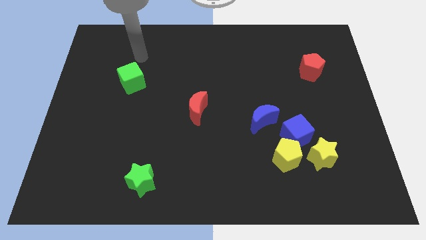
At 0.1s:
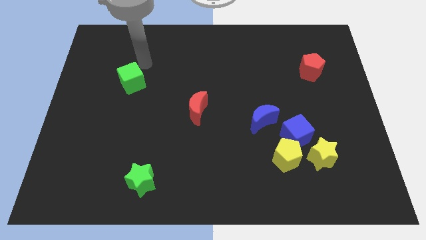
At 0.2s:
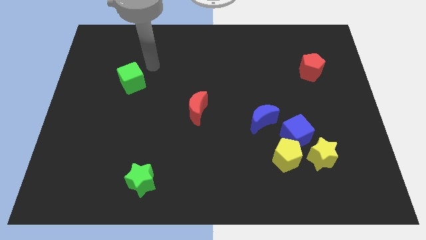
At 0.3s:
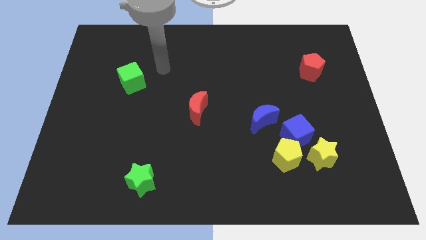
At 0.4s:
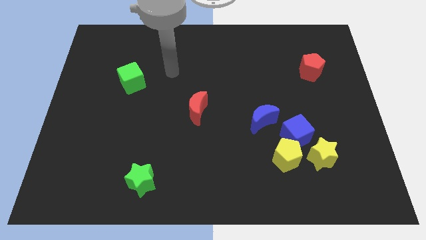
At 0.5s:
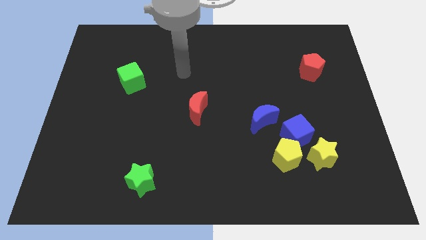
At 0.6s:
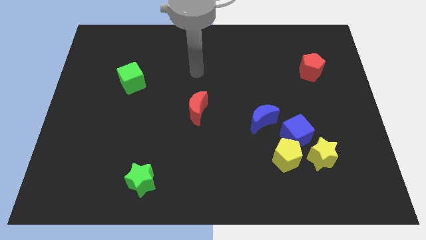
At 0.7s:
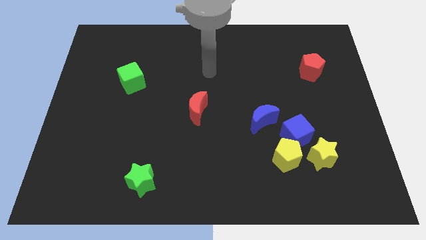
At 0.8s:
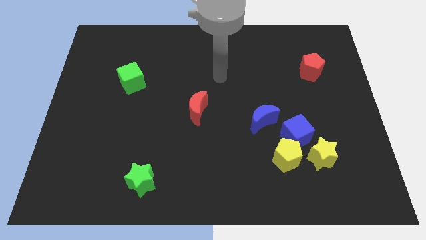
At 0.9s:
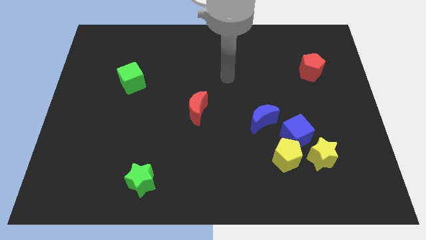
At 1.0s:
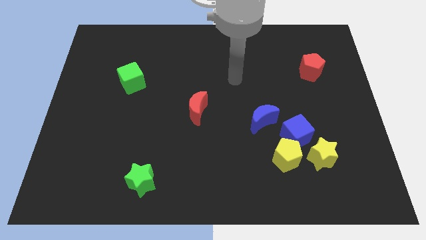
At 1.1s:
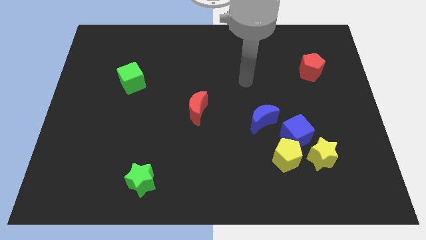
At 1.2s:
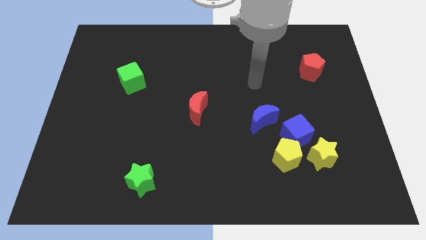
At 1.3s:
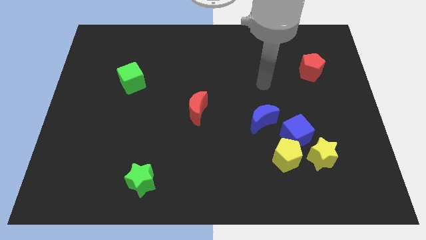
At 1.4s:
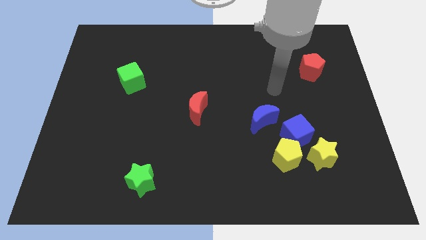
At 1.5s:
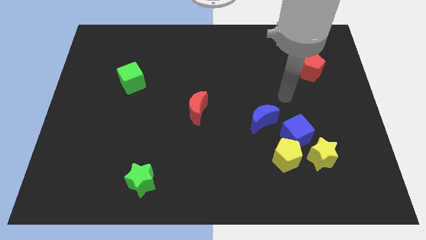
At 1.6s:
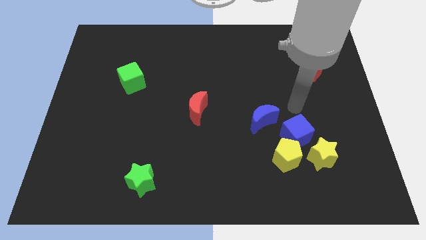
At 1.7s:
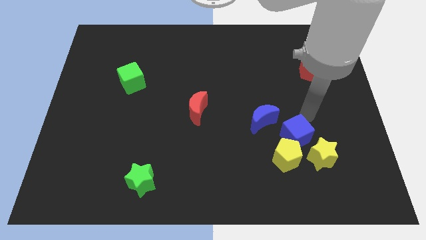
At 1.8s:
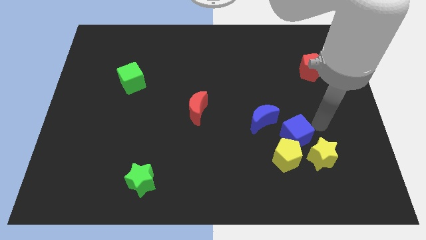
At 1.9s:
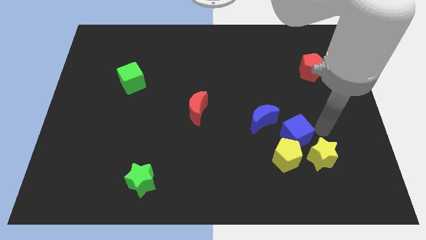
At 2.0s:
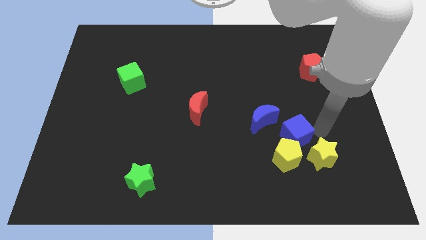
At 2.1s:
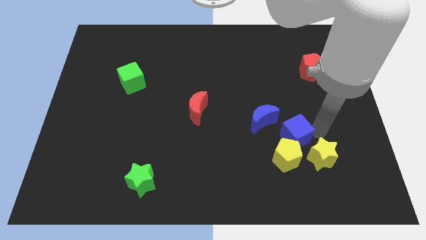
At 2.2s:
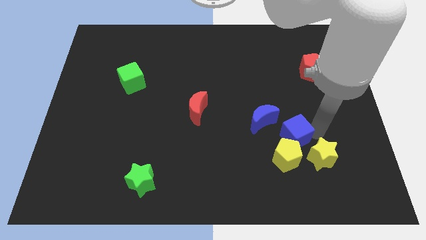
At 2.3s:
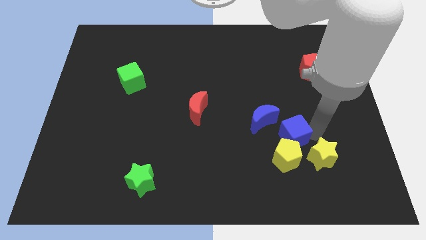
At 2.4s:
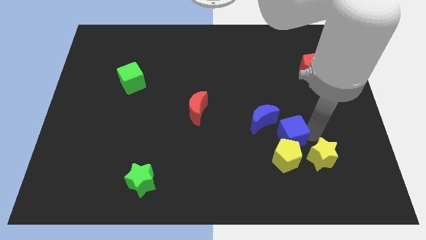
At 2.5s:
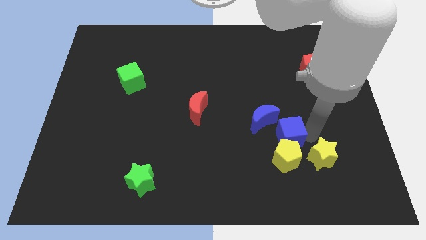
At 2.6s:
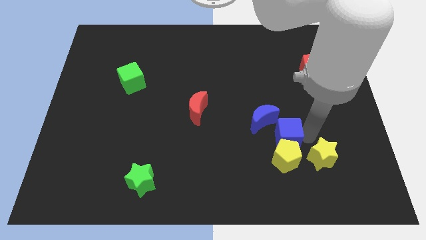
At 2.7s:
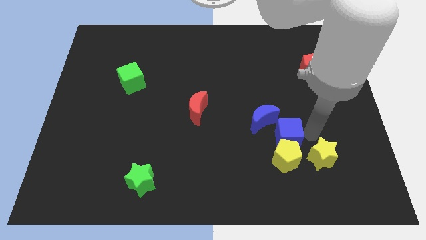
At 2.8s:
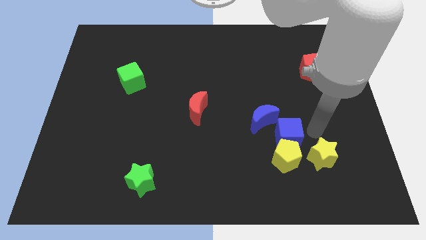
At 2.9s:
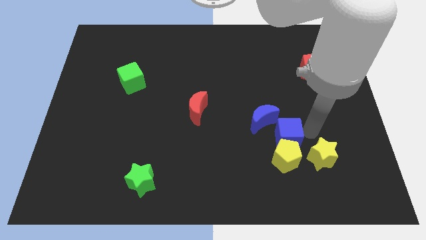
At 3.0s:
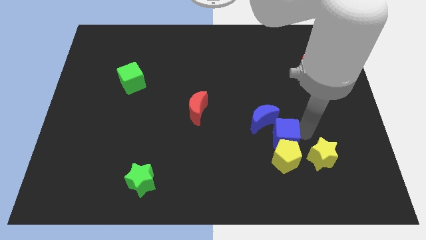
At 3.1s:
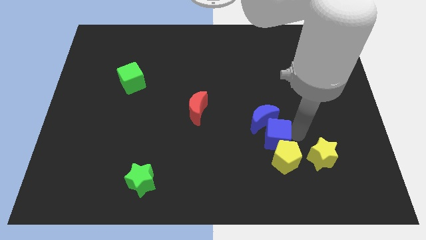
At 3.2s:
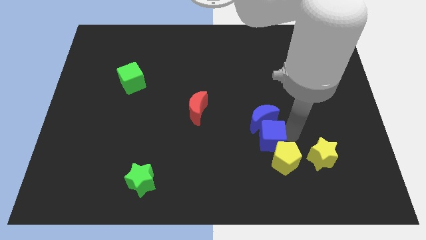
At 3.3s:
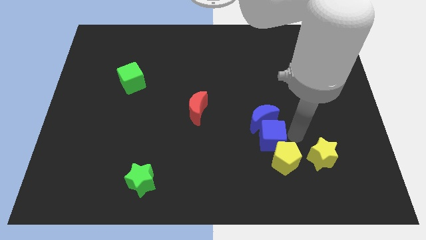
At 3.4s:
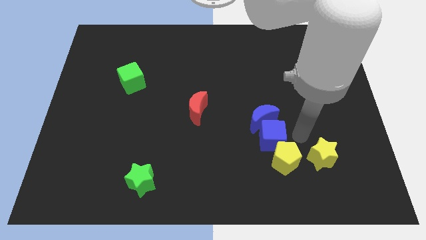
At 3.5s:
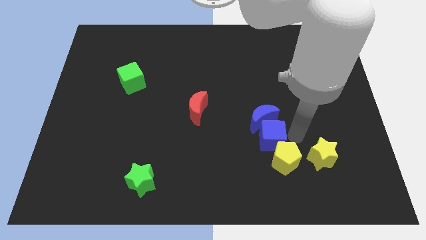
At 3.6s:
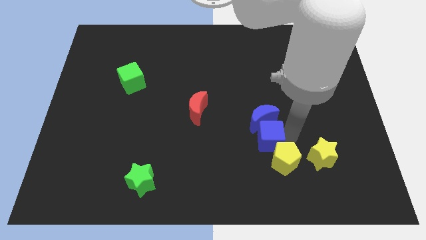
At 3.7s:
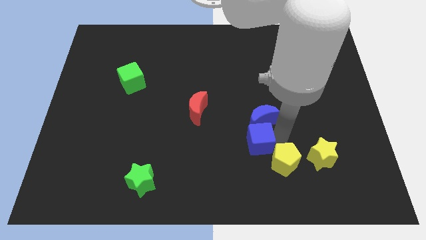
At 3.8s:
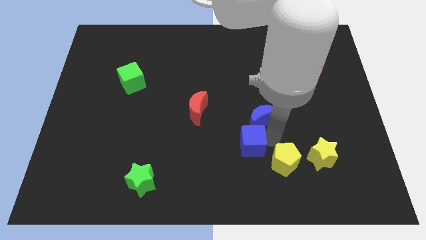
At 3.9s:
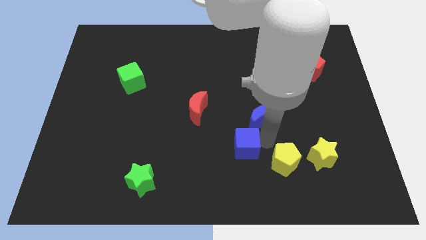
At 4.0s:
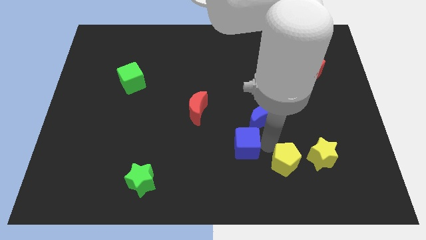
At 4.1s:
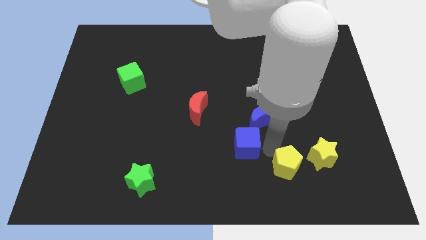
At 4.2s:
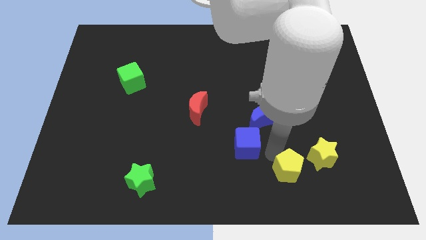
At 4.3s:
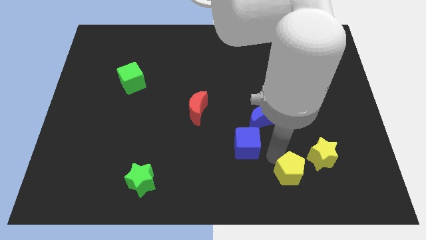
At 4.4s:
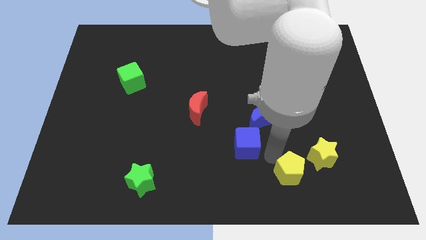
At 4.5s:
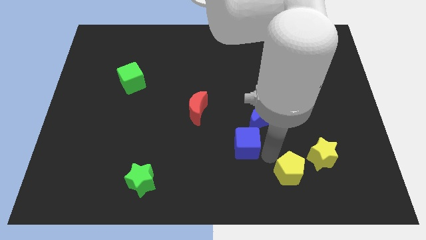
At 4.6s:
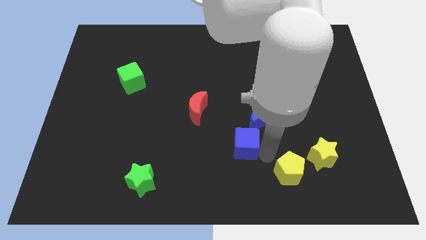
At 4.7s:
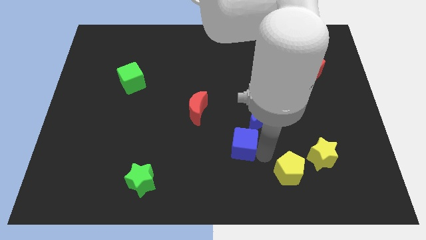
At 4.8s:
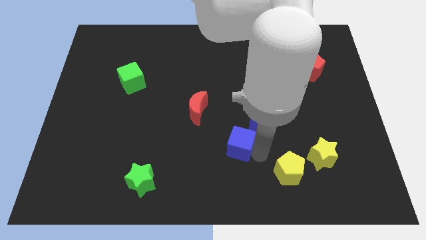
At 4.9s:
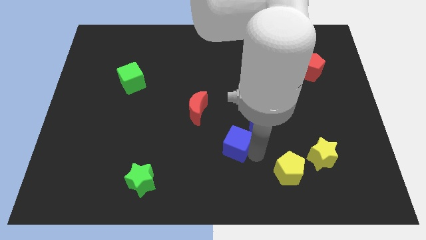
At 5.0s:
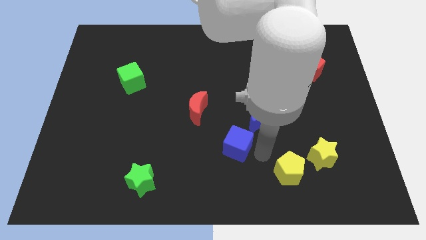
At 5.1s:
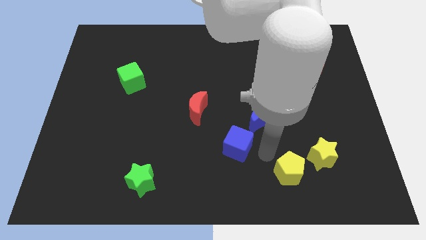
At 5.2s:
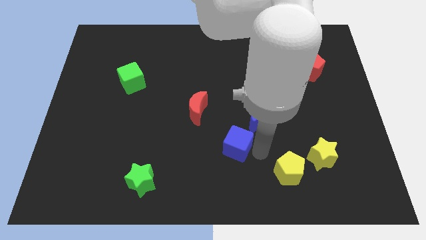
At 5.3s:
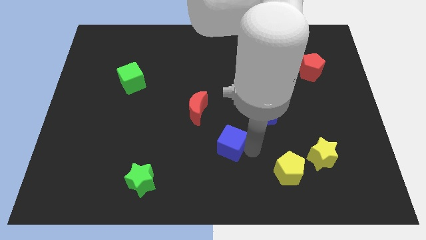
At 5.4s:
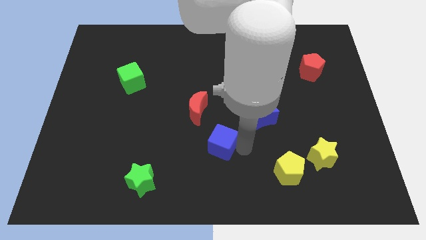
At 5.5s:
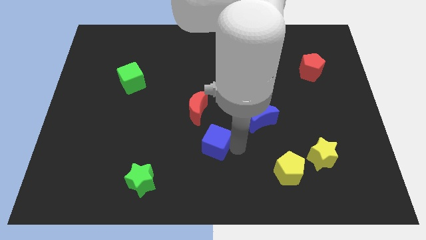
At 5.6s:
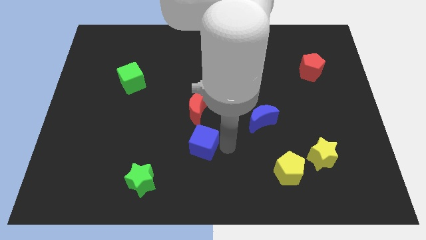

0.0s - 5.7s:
push the blue cube to the left

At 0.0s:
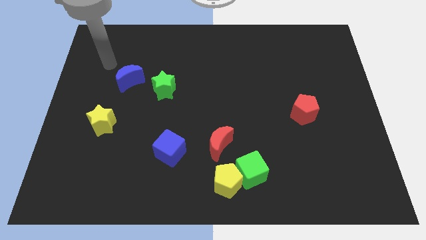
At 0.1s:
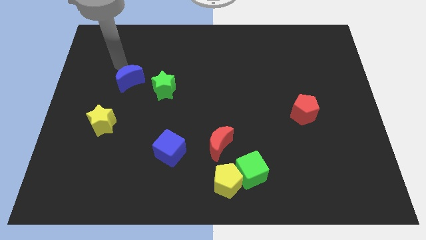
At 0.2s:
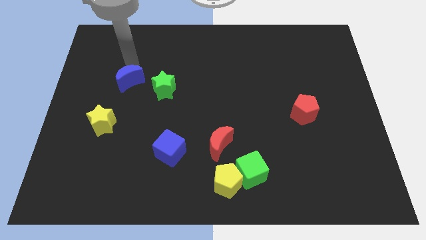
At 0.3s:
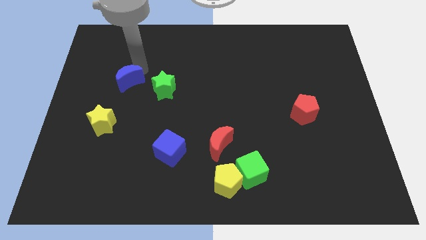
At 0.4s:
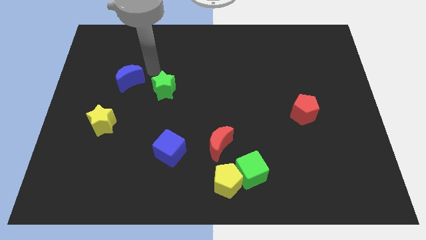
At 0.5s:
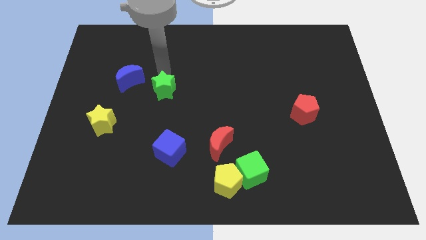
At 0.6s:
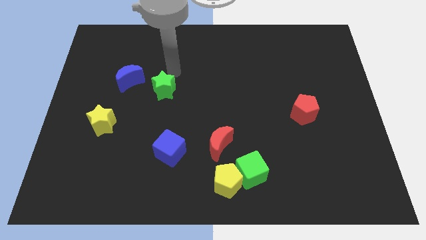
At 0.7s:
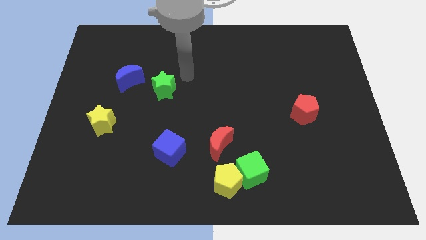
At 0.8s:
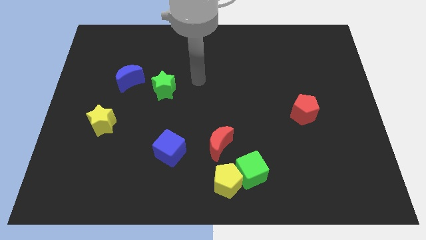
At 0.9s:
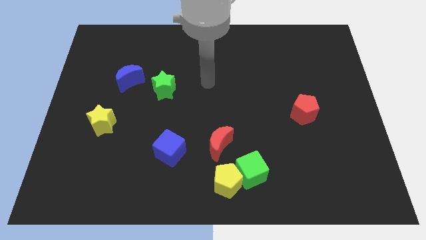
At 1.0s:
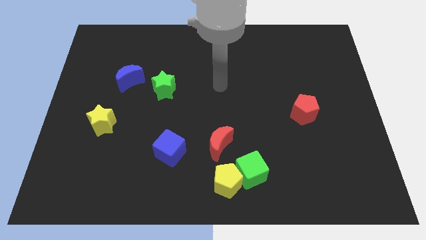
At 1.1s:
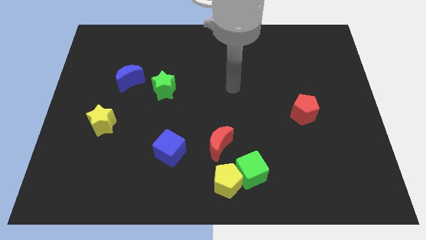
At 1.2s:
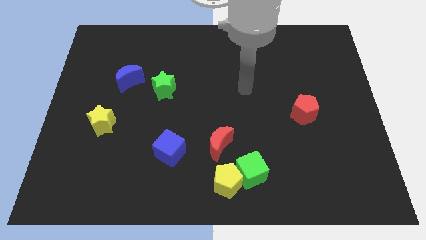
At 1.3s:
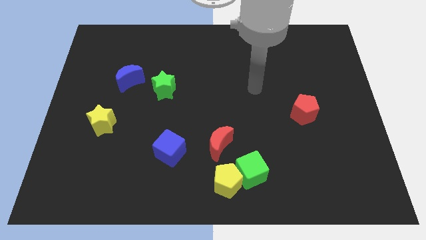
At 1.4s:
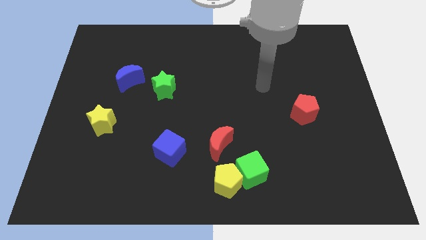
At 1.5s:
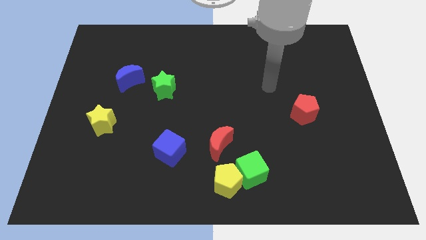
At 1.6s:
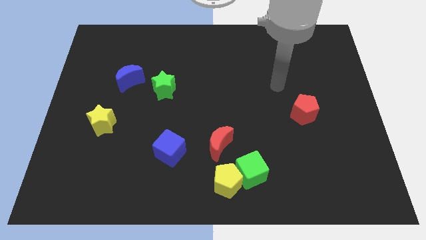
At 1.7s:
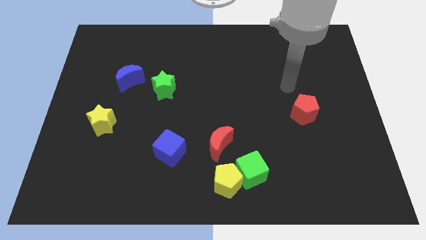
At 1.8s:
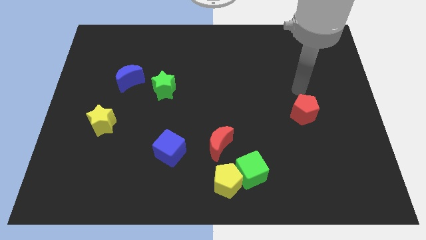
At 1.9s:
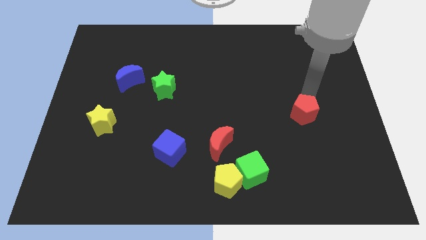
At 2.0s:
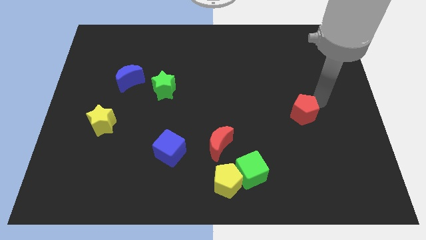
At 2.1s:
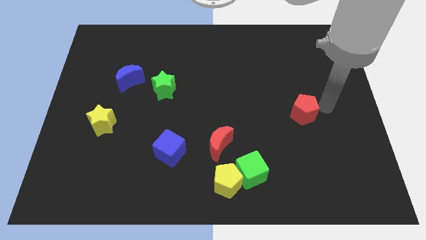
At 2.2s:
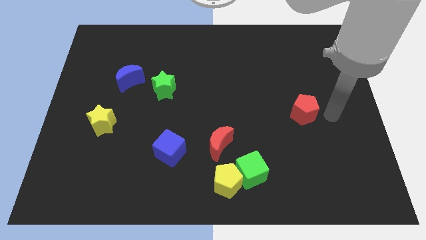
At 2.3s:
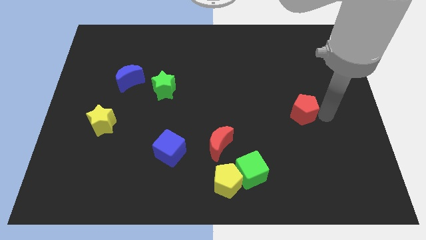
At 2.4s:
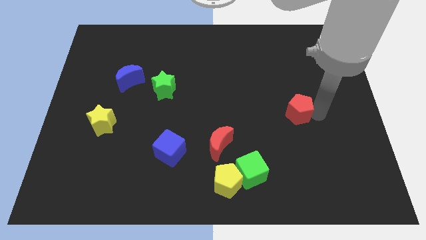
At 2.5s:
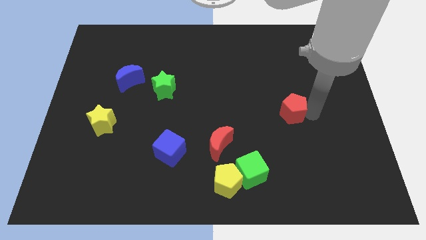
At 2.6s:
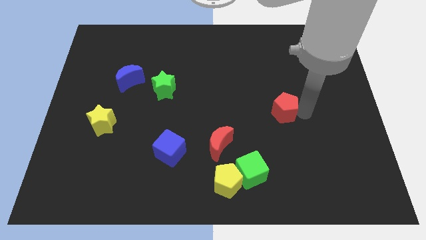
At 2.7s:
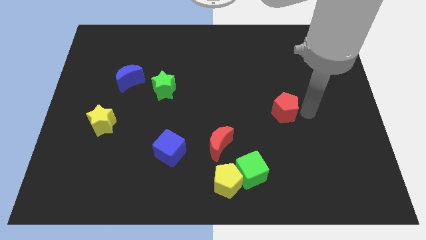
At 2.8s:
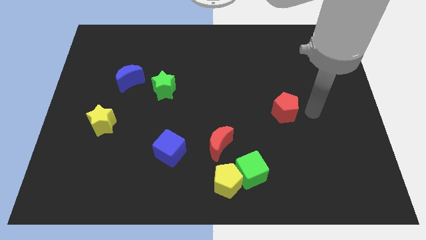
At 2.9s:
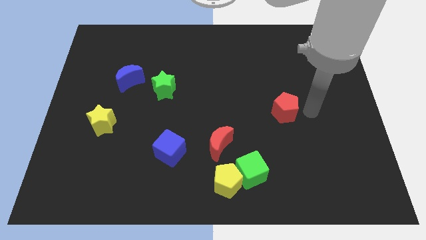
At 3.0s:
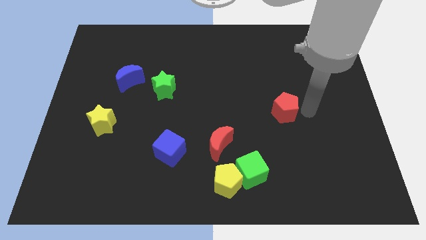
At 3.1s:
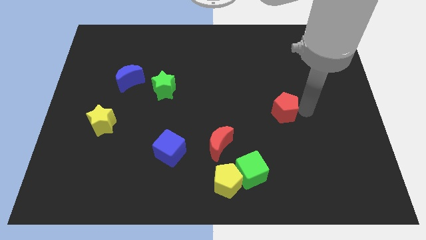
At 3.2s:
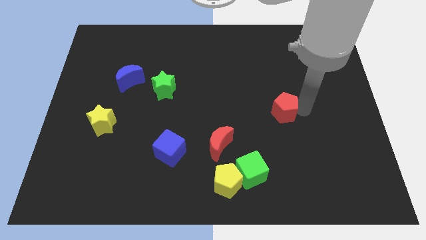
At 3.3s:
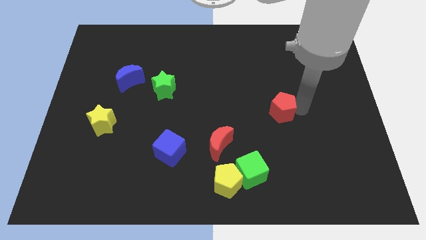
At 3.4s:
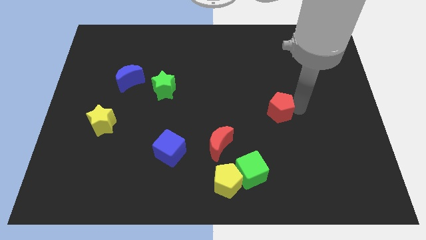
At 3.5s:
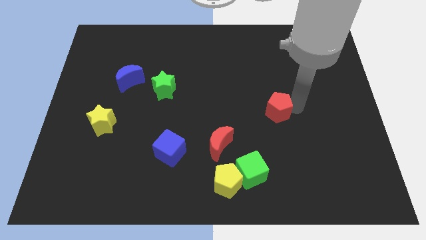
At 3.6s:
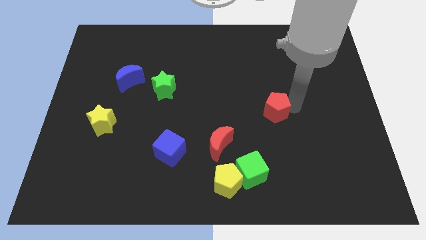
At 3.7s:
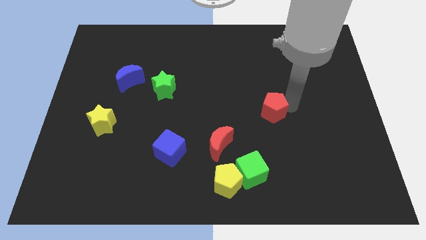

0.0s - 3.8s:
move the red pentagon to the left somewhat
